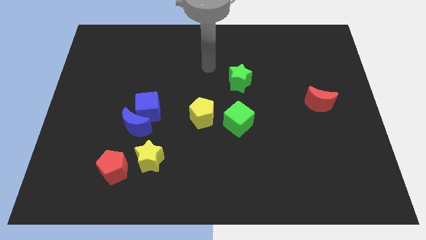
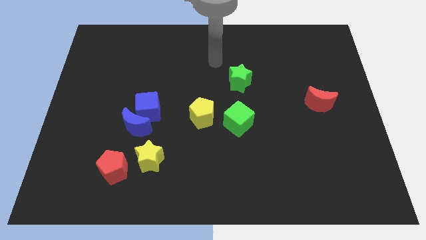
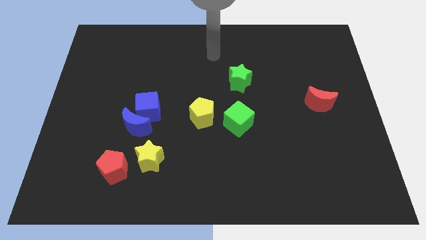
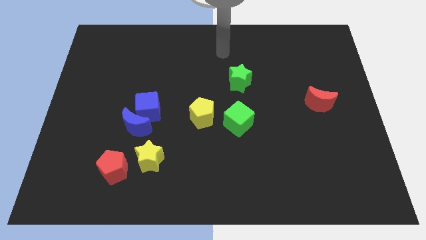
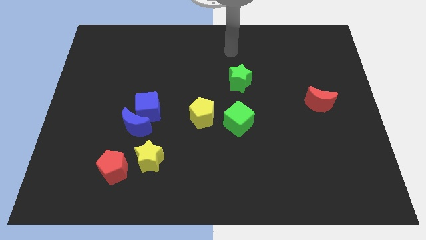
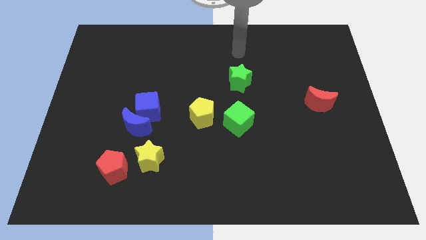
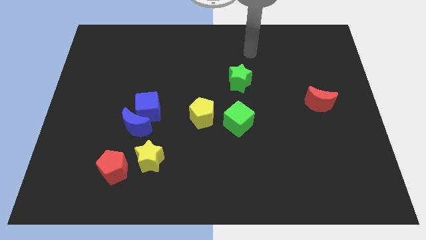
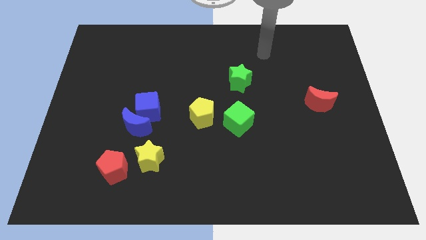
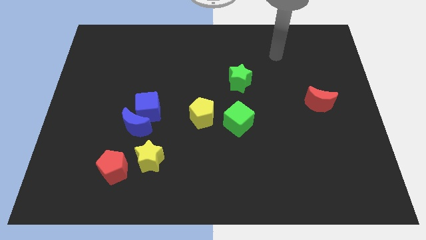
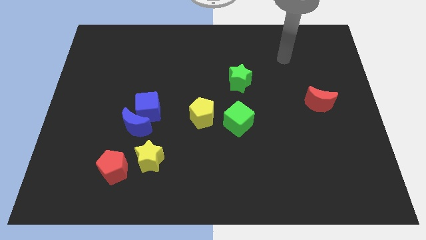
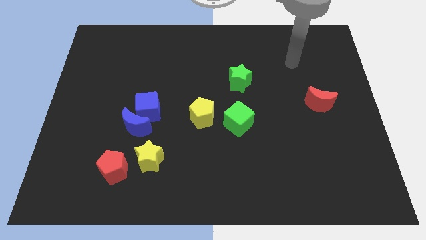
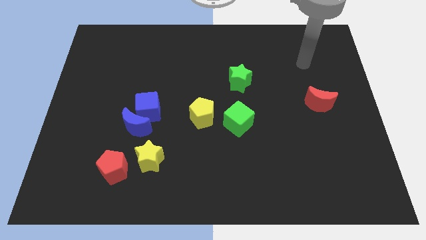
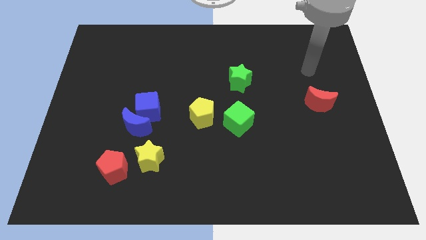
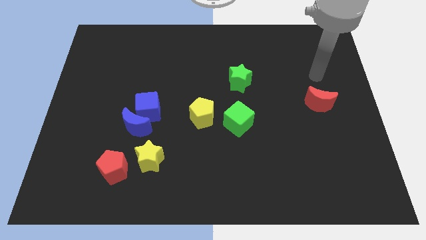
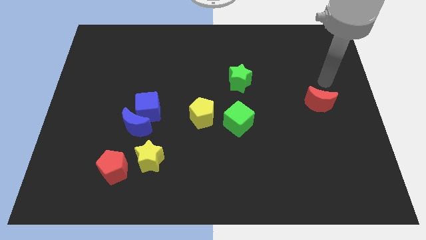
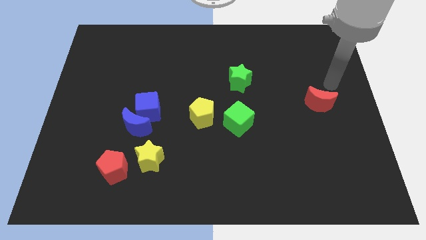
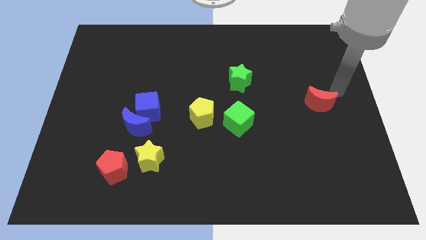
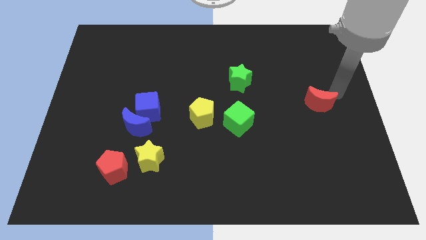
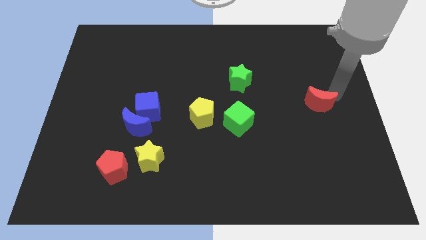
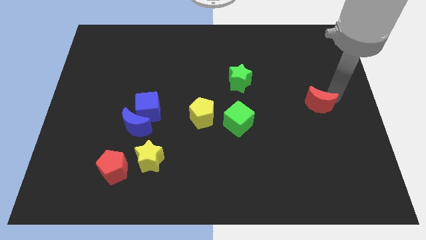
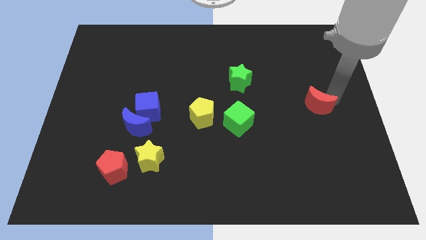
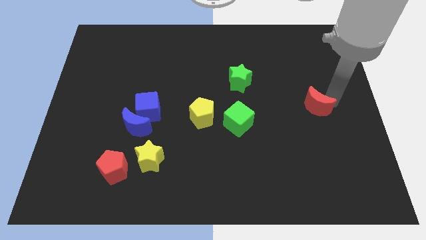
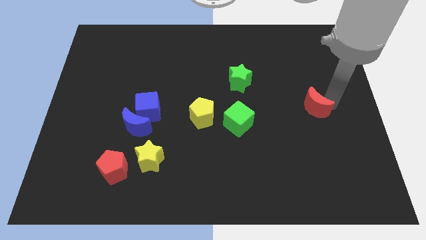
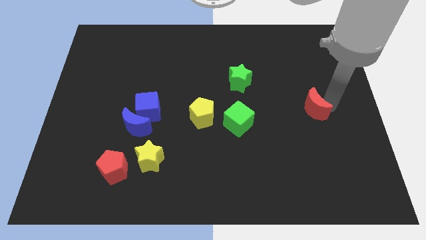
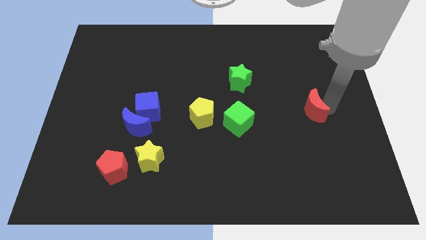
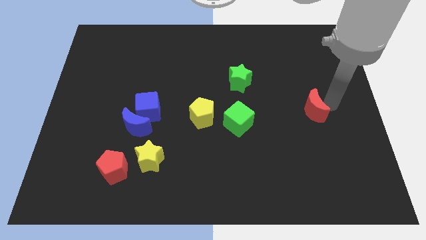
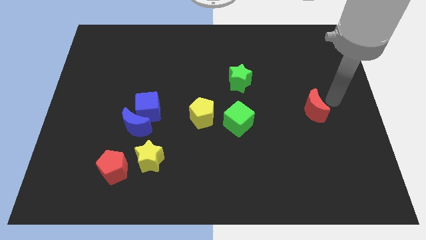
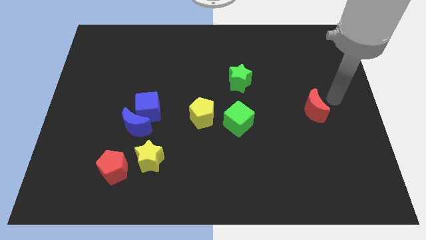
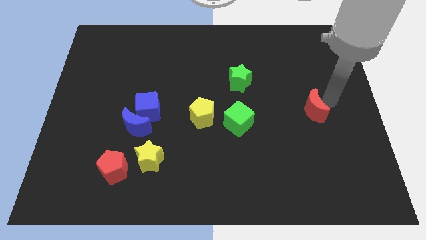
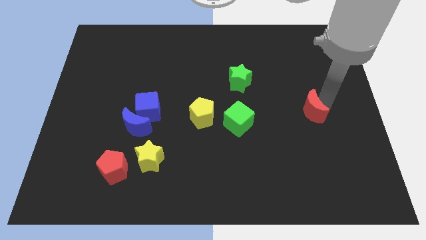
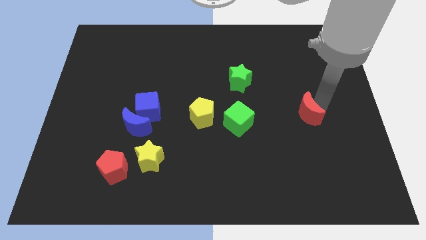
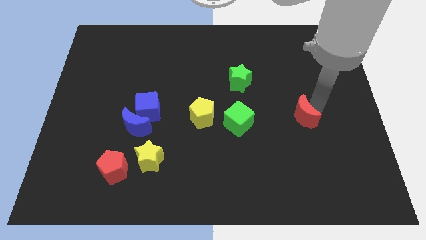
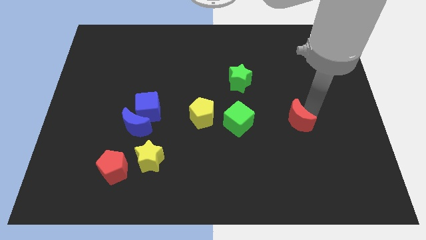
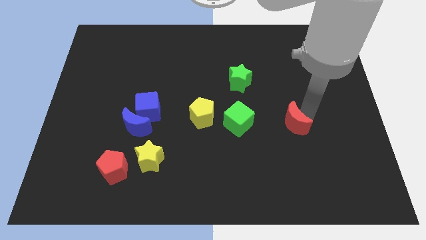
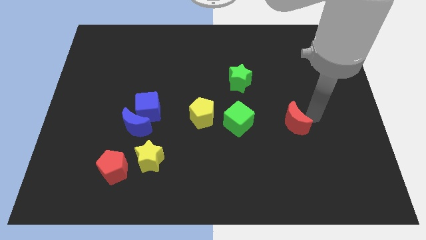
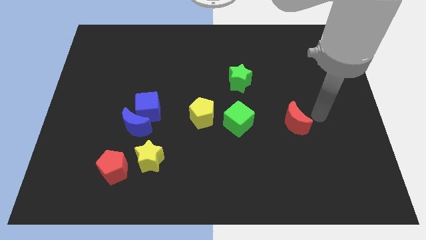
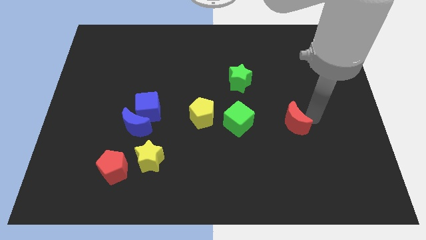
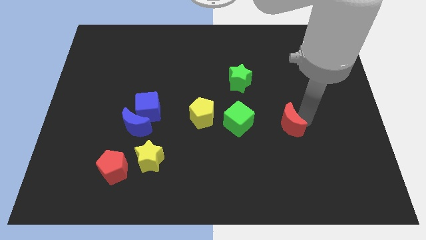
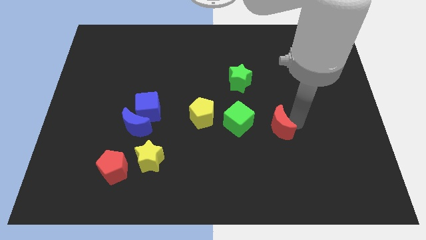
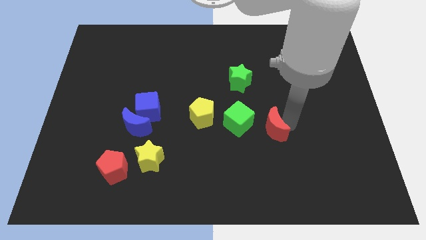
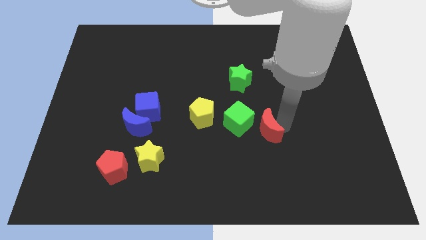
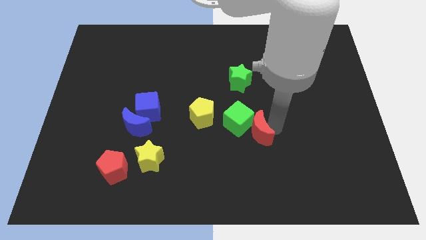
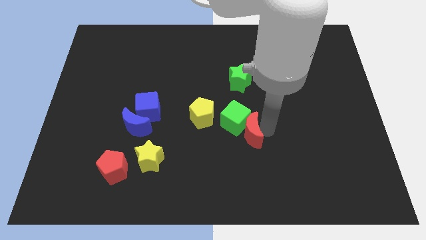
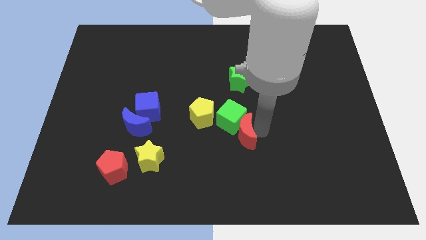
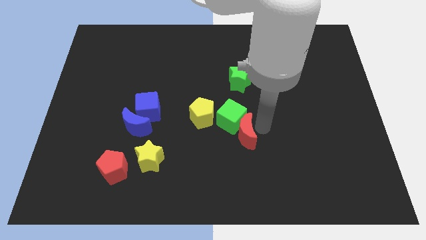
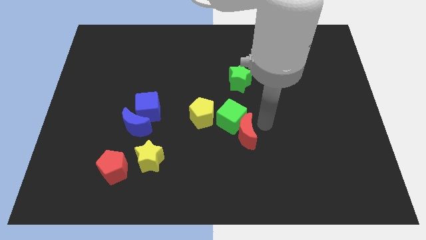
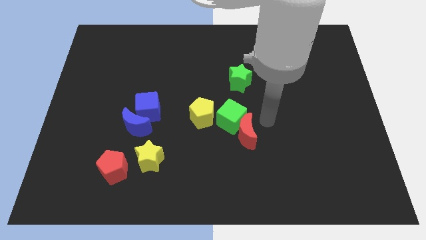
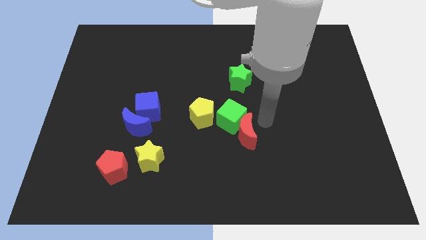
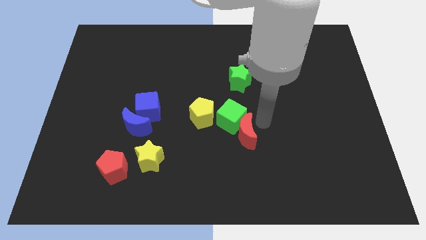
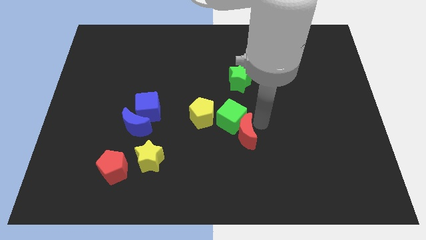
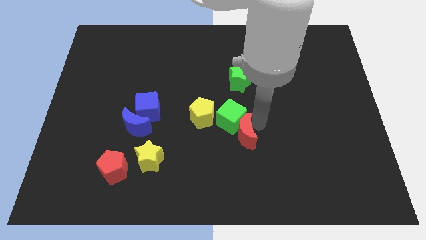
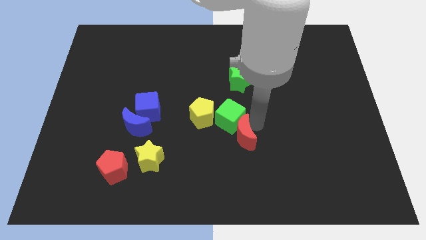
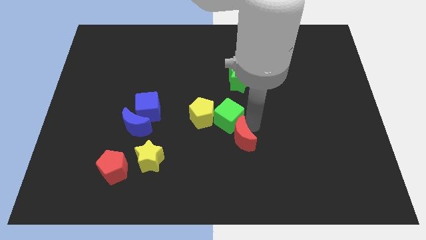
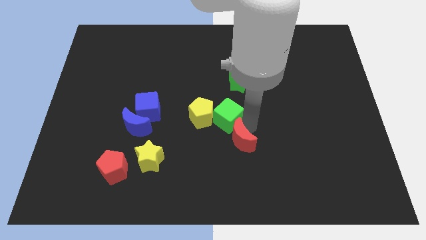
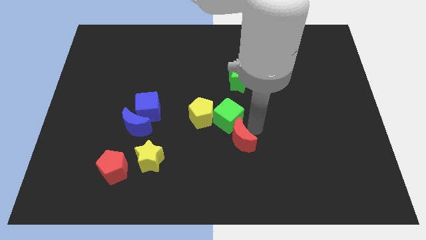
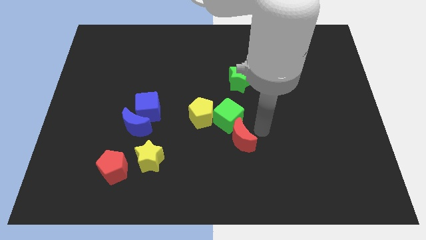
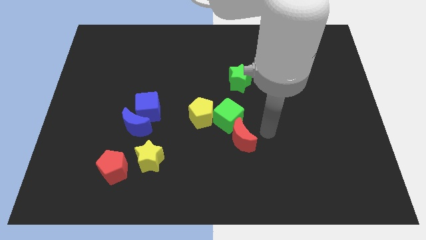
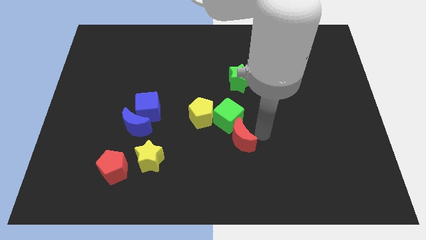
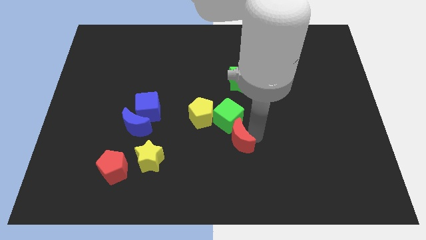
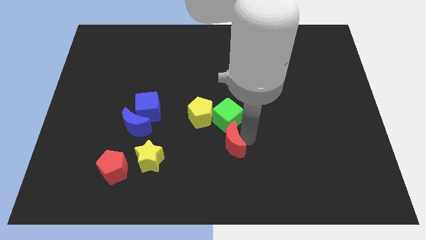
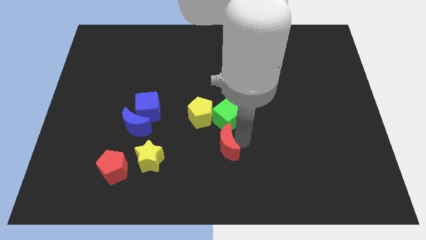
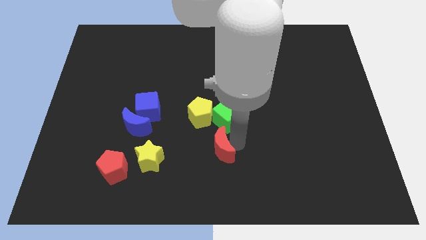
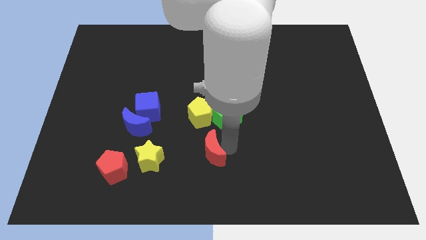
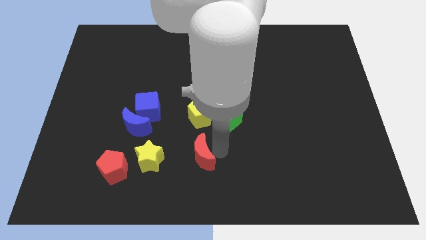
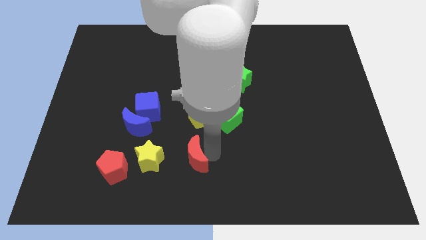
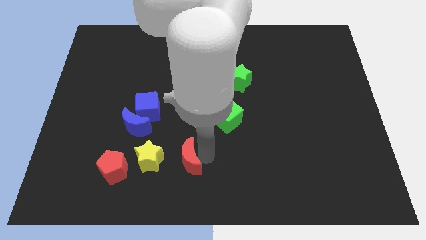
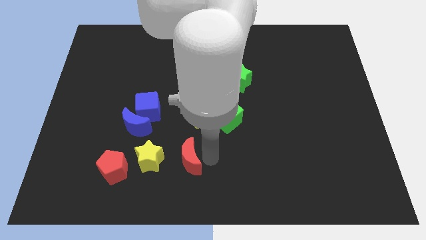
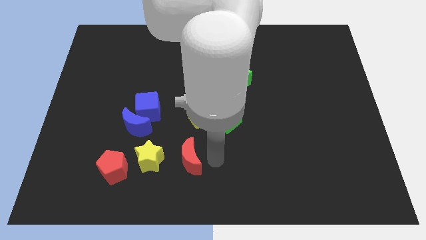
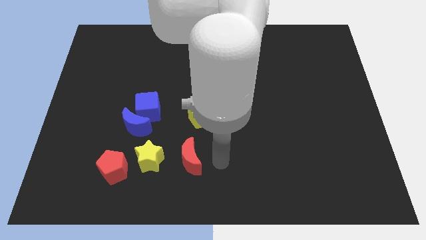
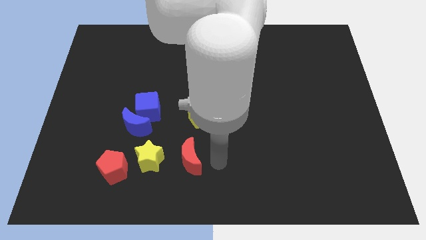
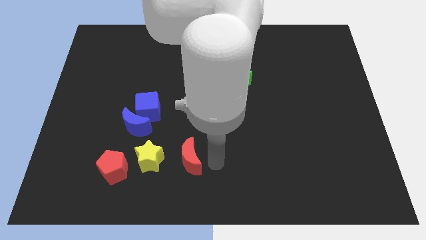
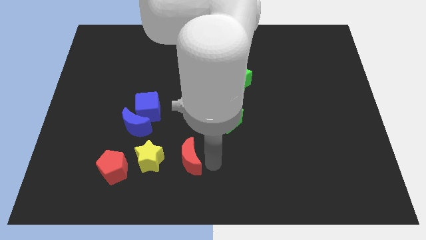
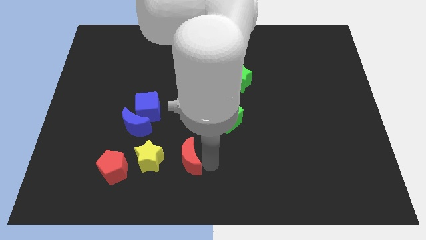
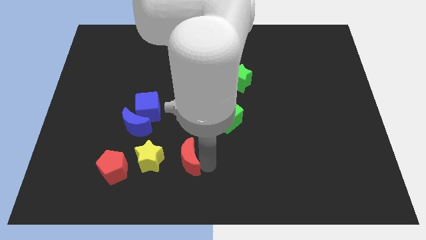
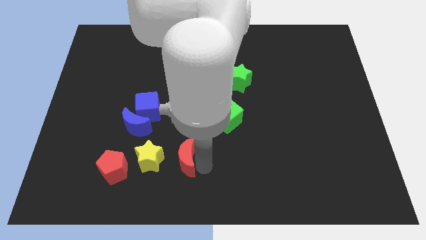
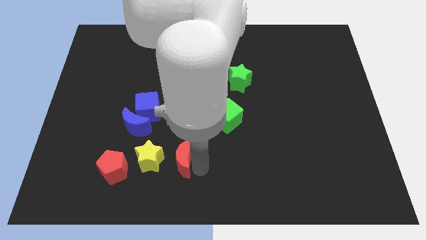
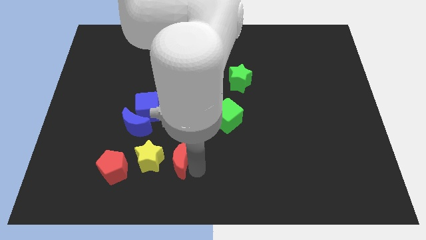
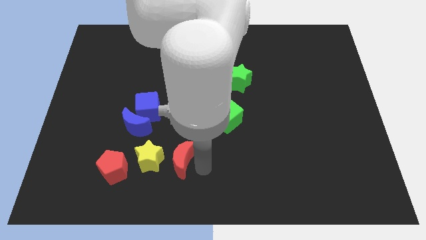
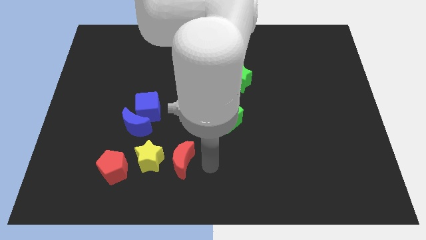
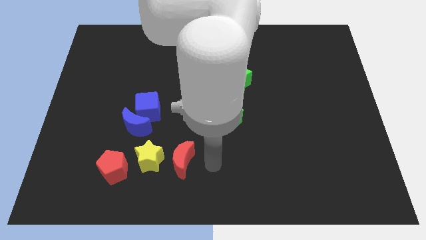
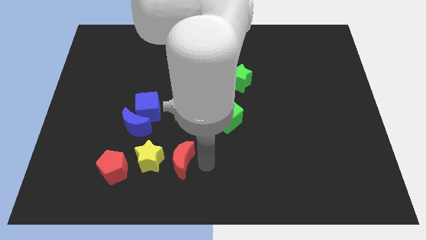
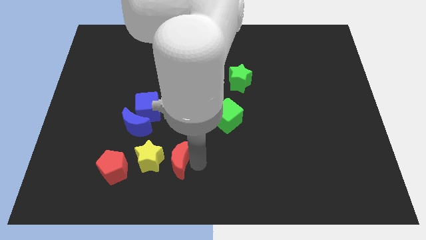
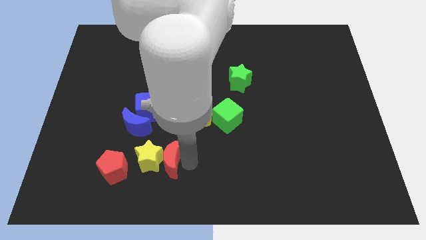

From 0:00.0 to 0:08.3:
move the red moon next to the yellow star

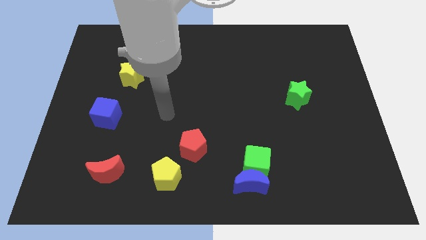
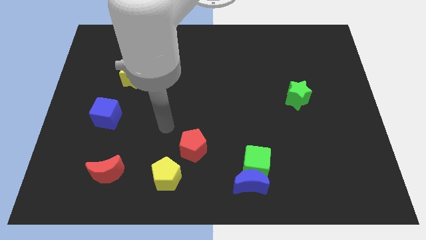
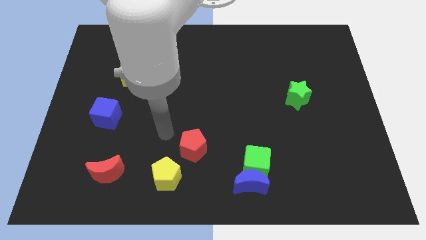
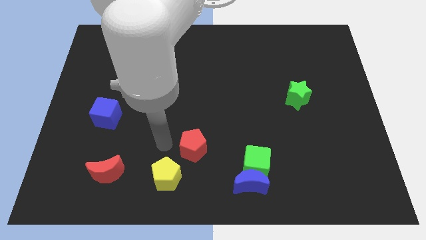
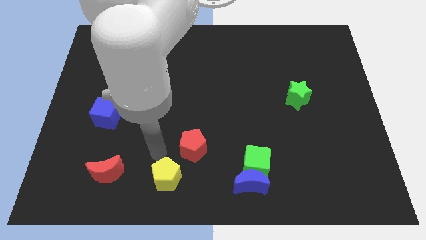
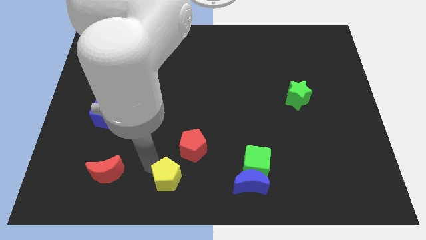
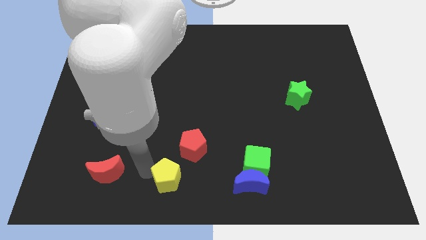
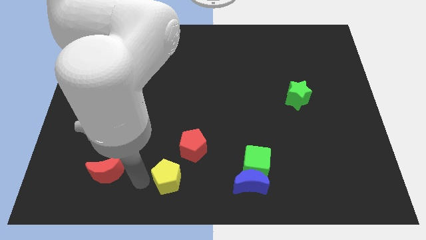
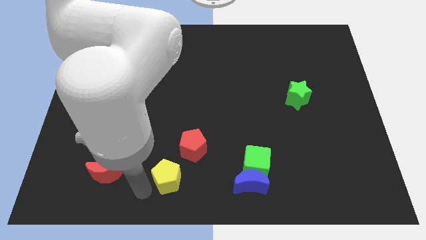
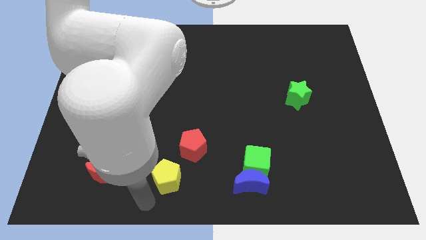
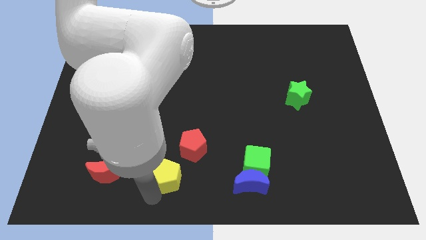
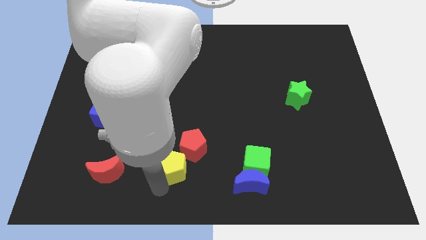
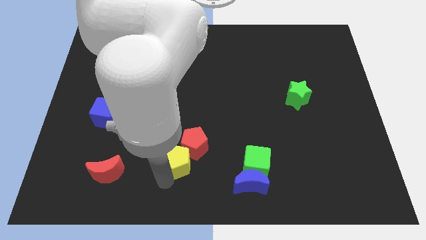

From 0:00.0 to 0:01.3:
move the yellow pentagon towards the red pentagon
